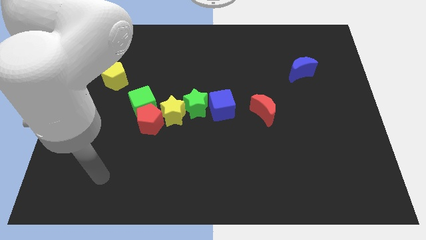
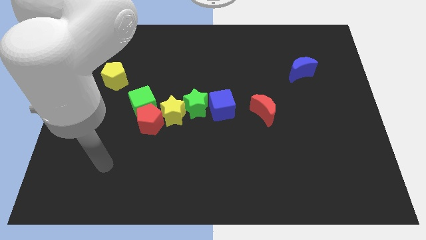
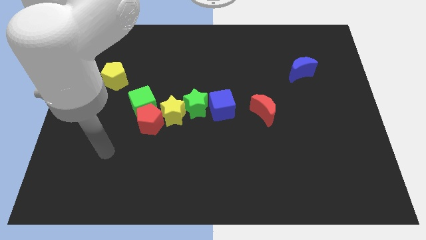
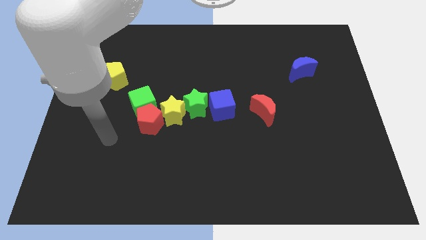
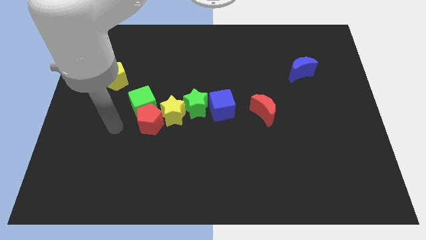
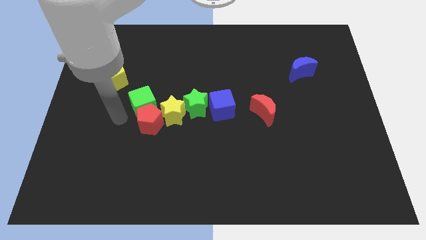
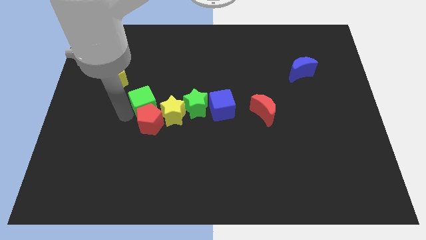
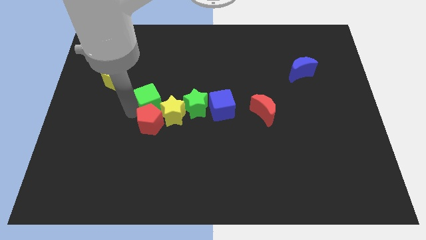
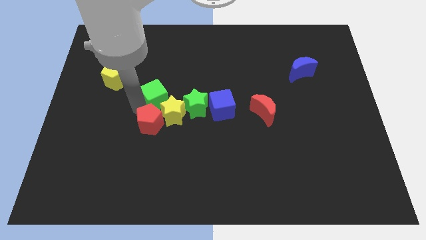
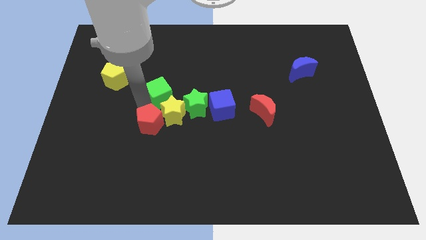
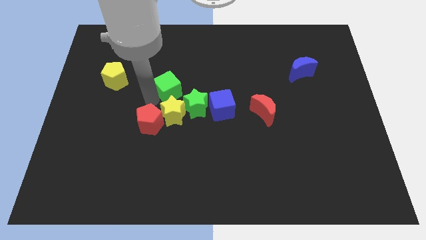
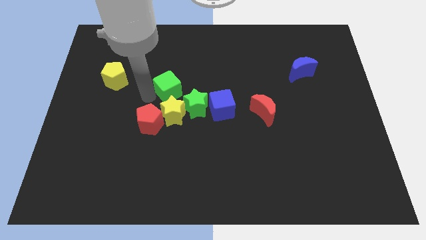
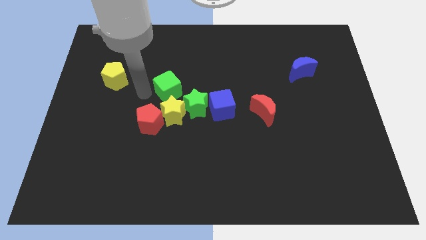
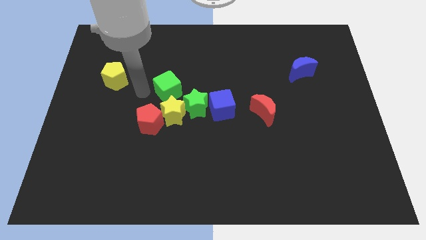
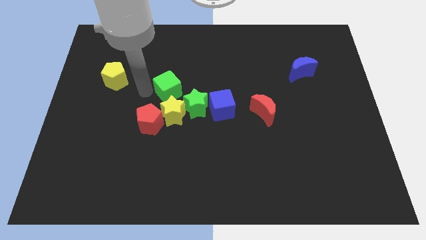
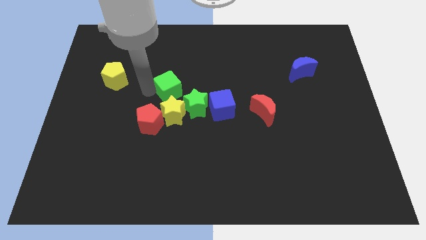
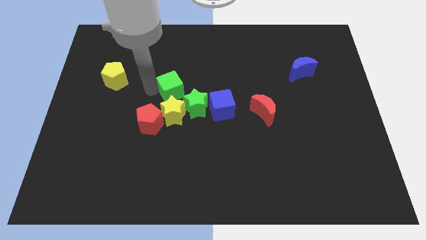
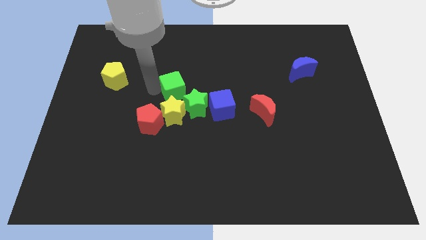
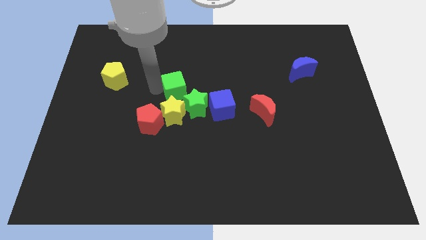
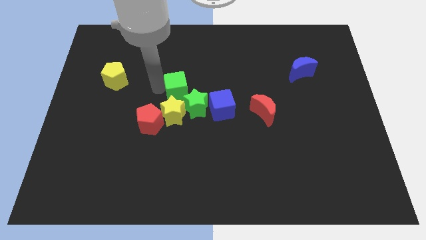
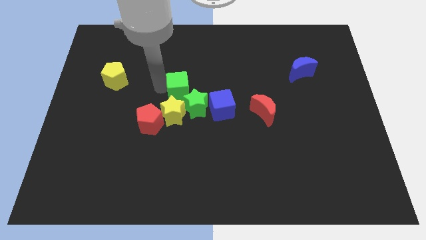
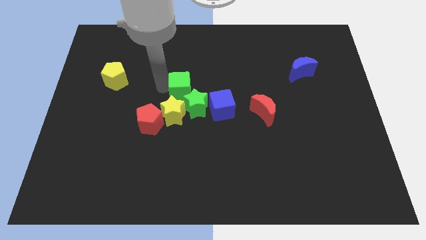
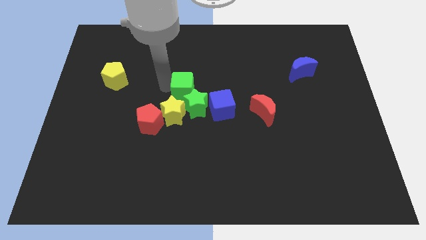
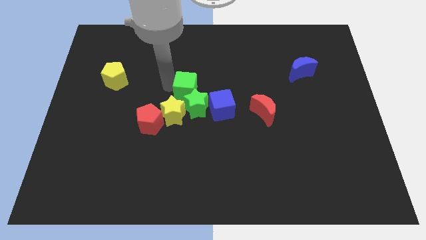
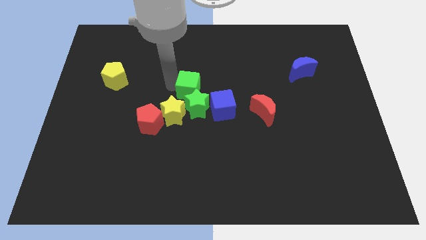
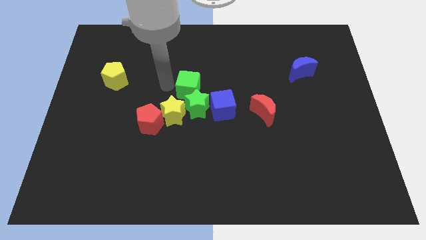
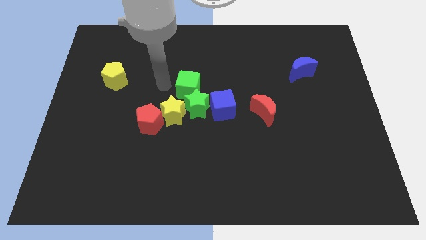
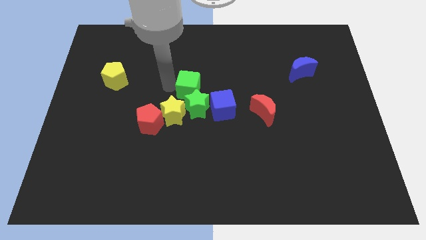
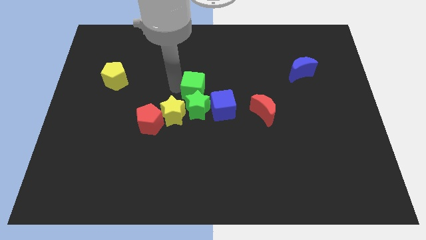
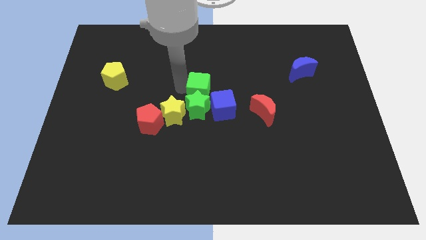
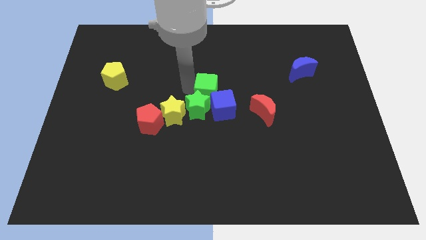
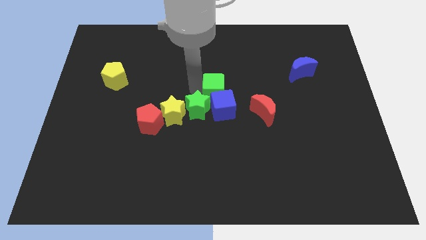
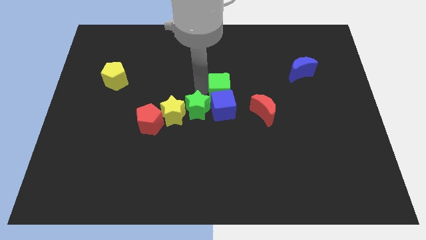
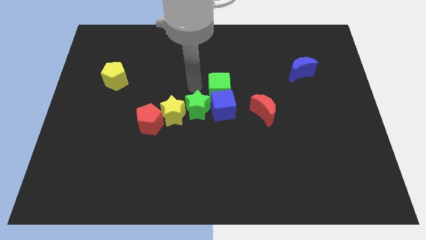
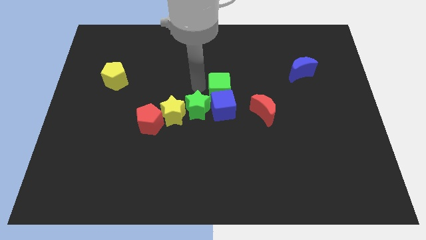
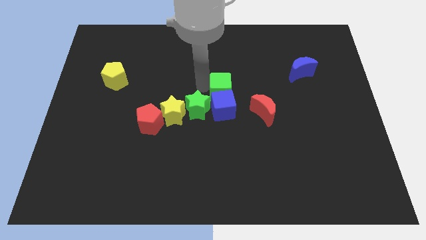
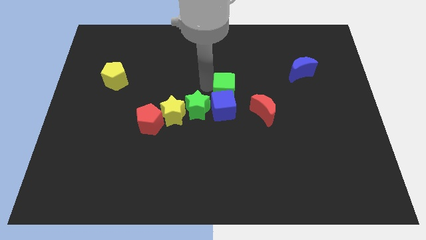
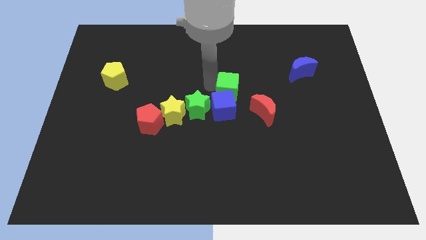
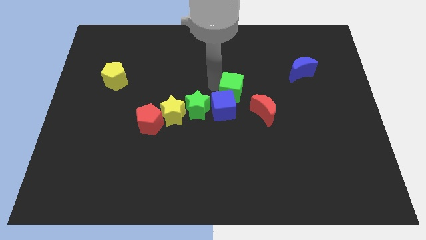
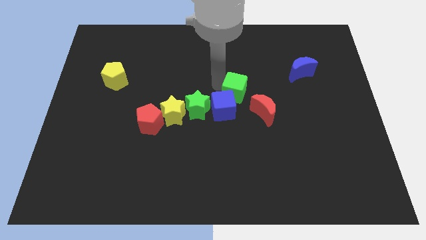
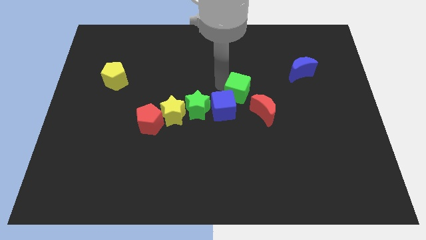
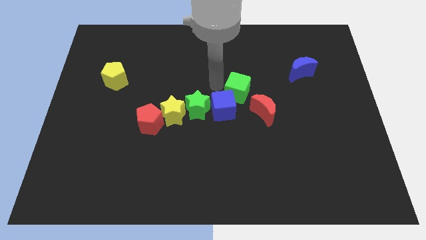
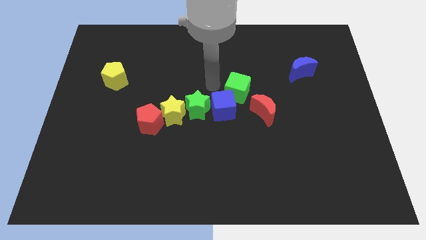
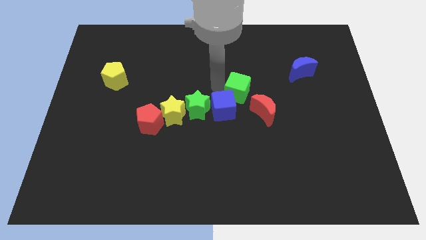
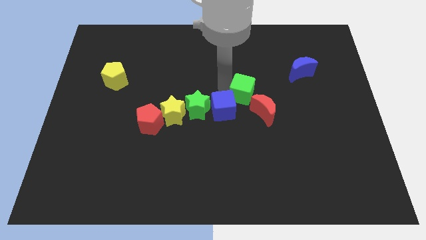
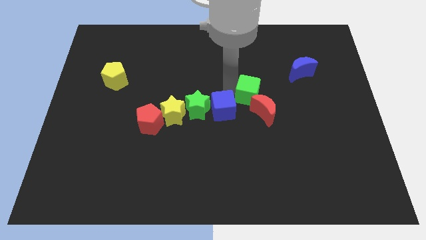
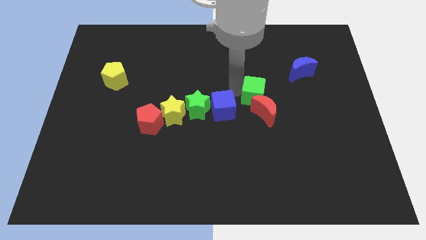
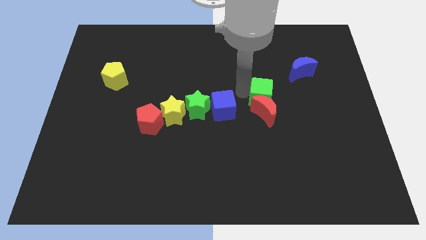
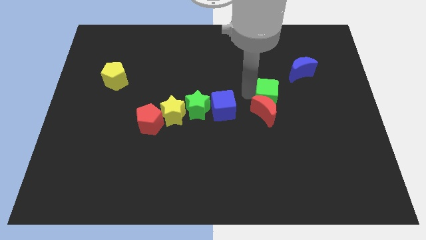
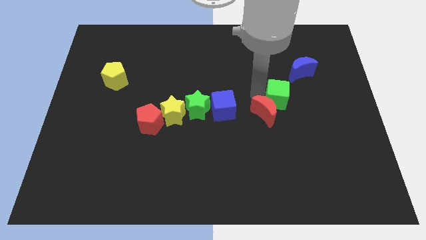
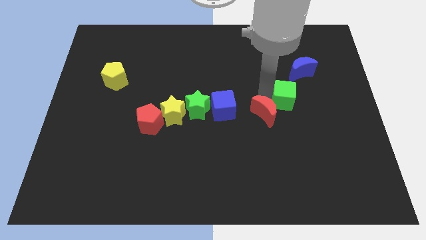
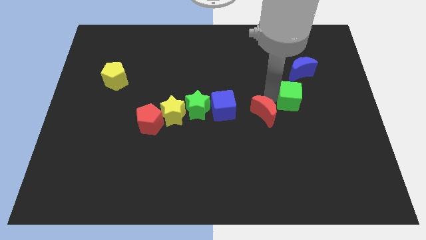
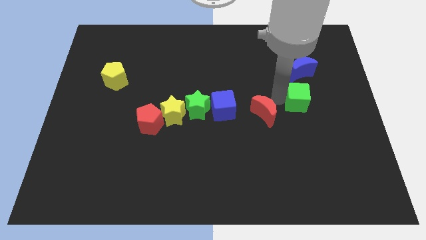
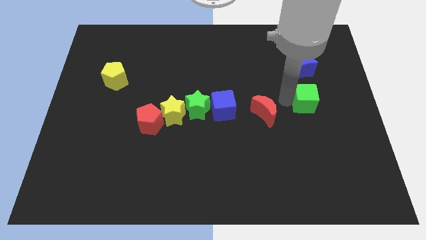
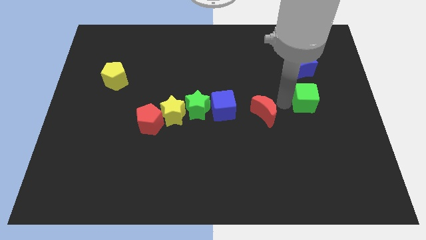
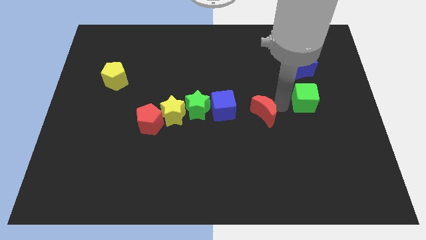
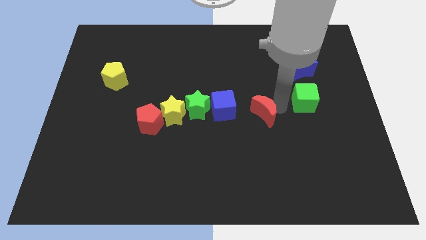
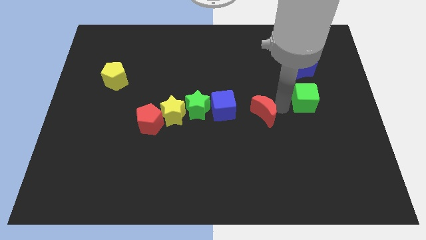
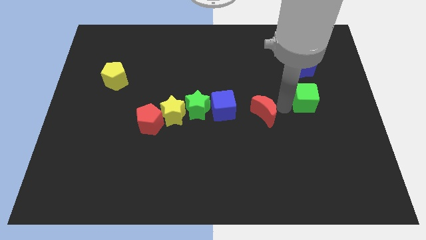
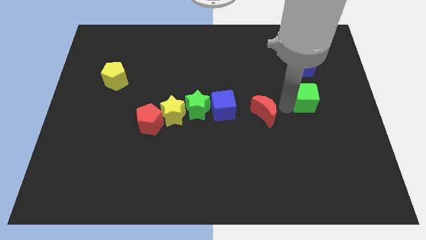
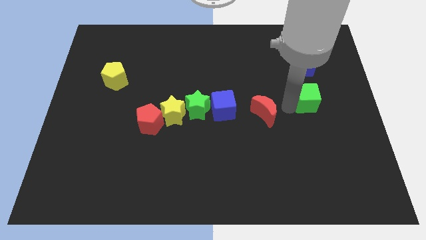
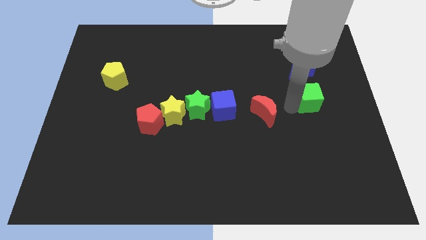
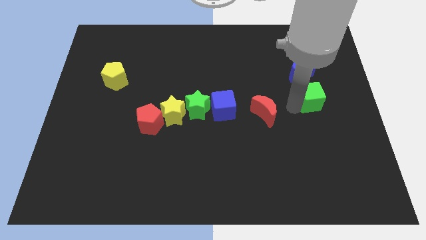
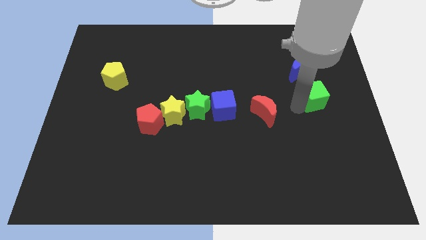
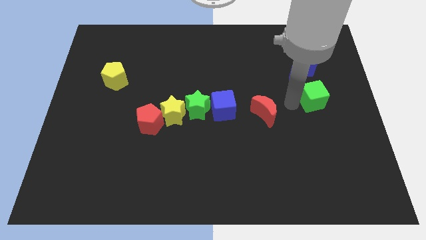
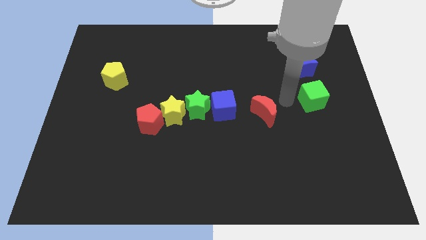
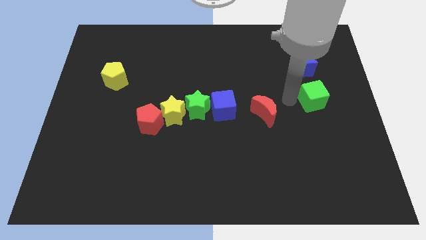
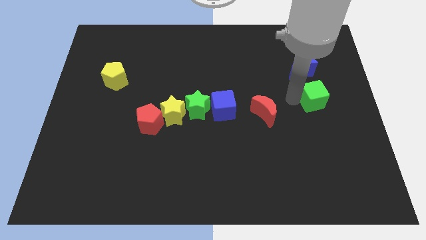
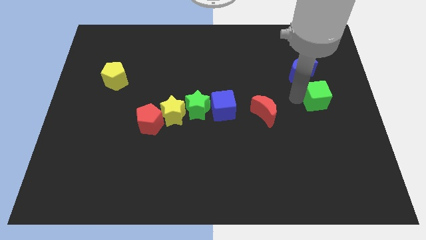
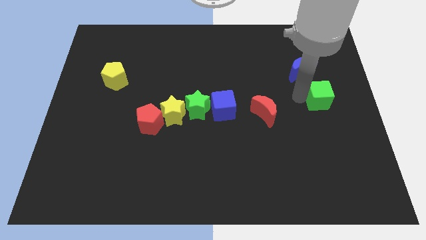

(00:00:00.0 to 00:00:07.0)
put the green cube to the right side

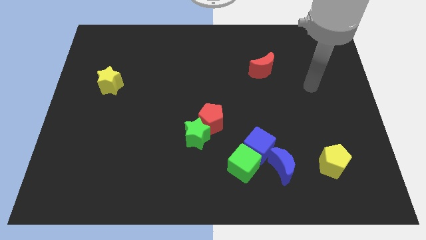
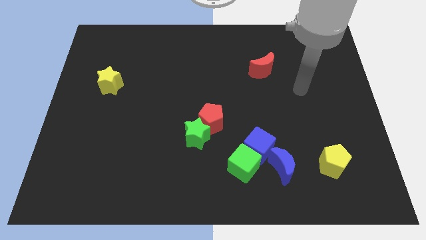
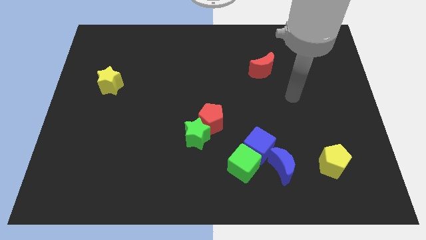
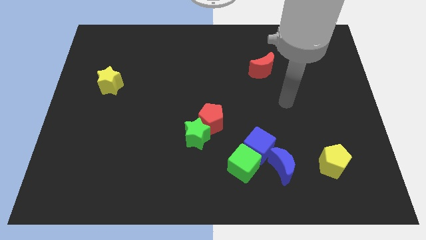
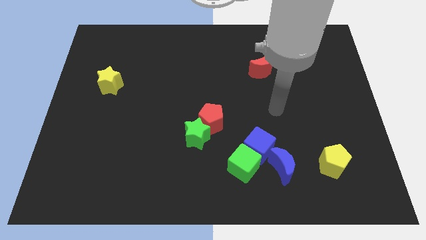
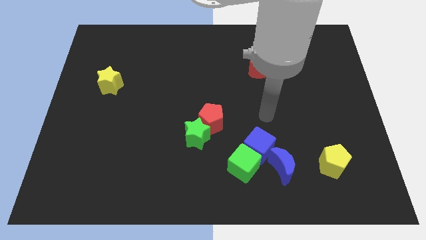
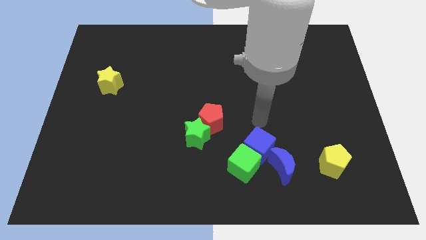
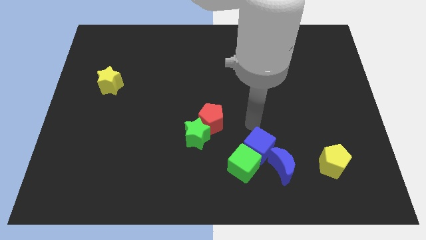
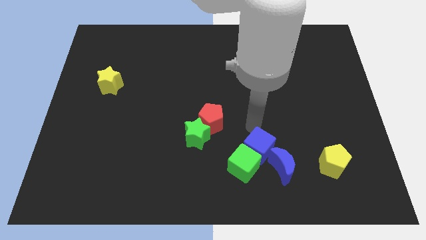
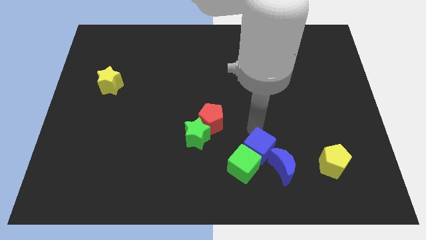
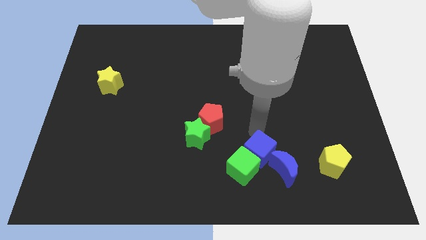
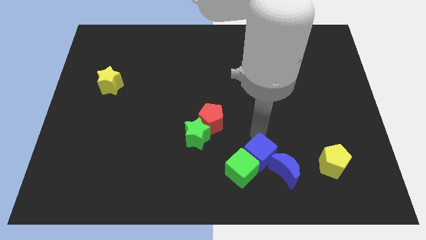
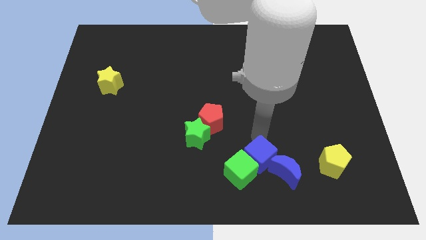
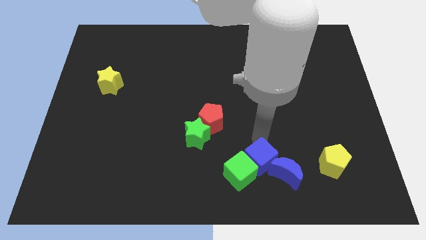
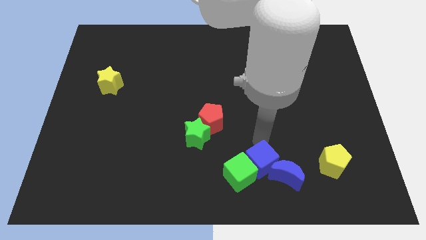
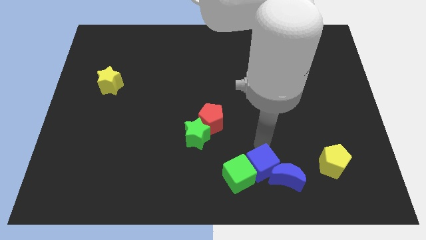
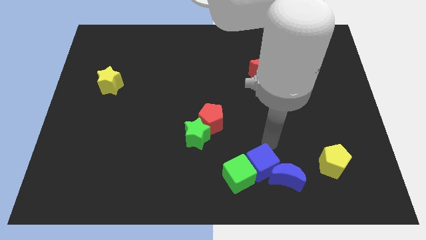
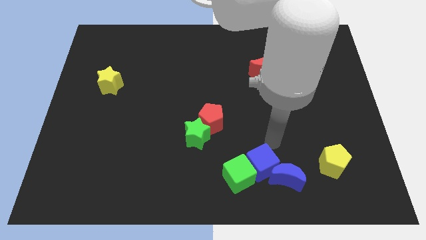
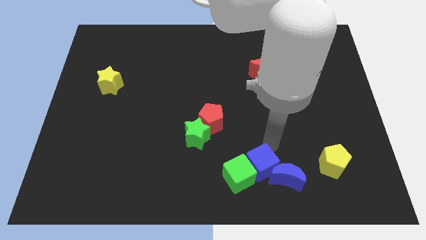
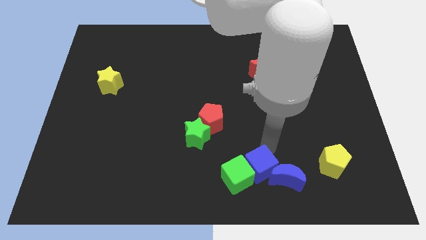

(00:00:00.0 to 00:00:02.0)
put the blue cube to the bottom
